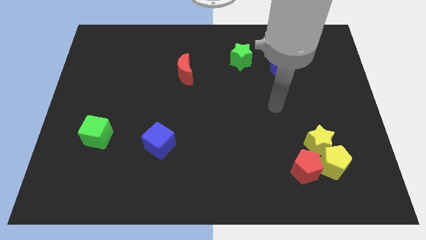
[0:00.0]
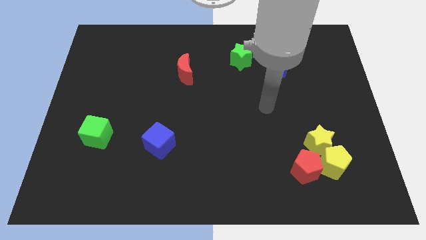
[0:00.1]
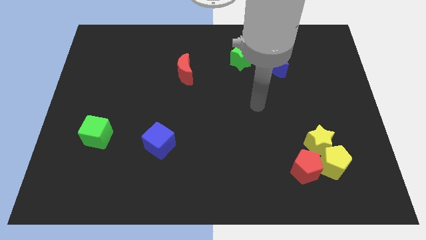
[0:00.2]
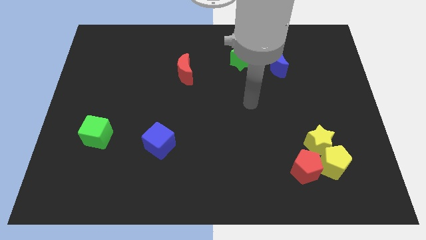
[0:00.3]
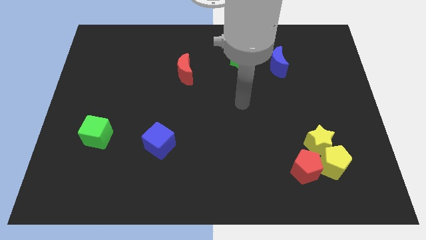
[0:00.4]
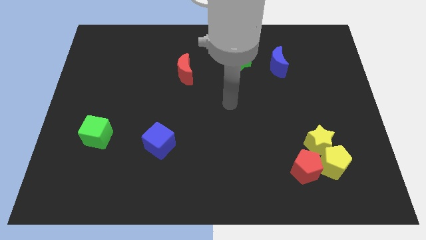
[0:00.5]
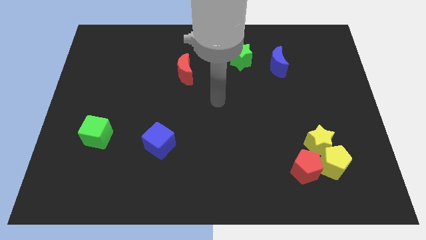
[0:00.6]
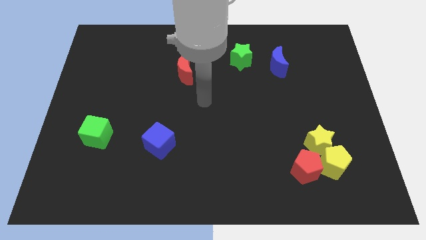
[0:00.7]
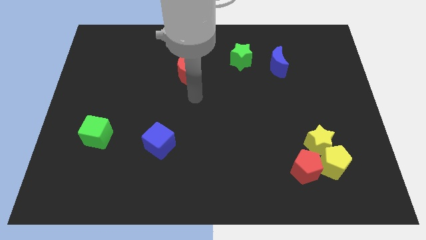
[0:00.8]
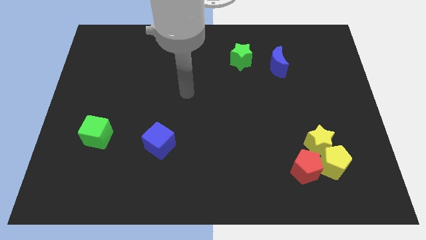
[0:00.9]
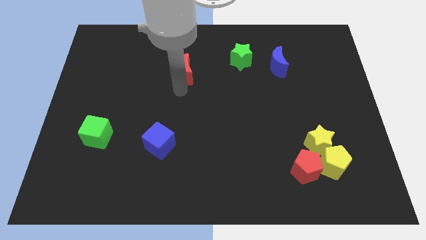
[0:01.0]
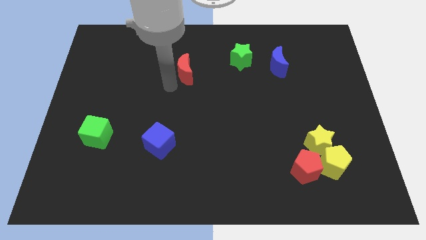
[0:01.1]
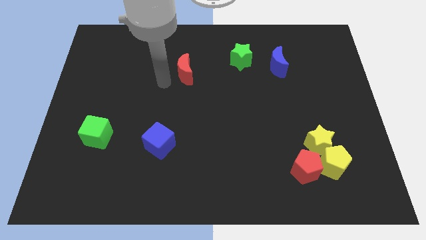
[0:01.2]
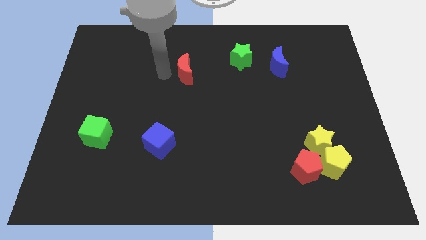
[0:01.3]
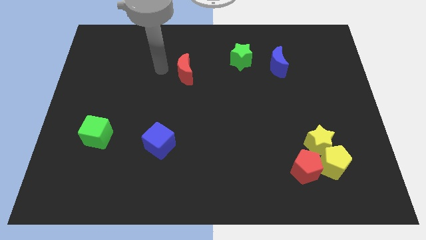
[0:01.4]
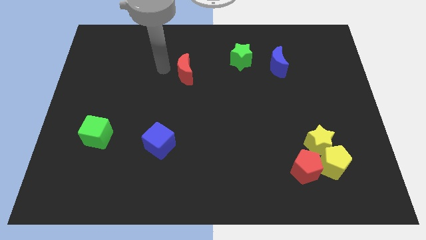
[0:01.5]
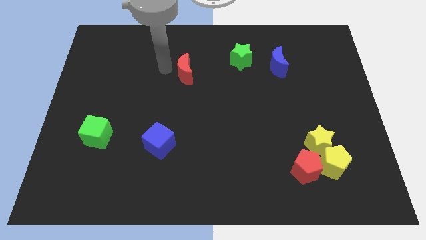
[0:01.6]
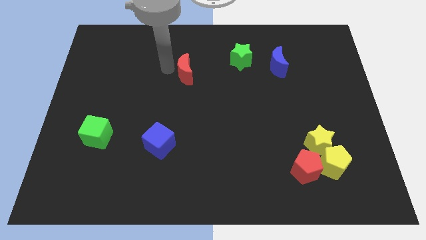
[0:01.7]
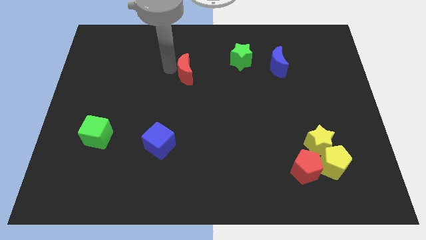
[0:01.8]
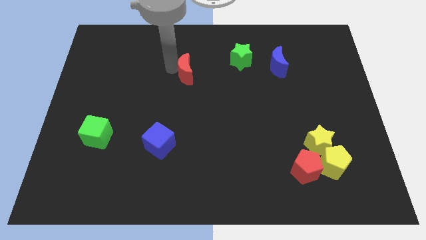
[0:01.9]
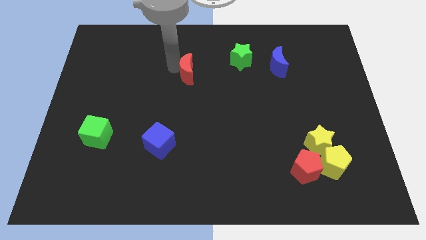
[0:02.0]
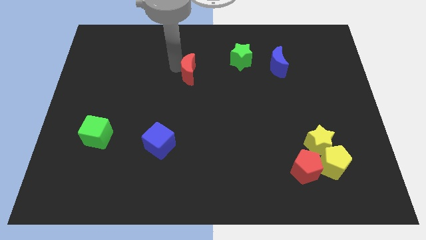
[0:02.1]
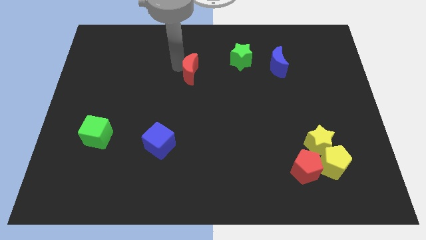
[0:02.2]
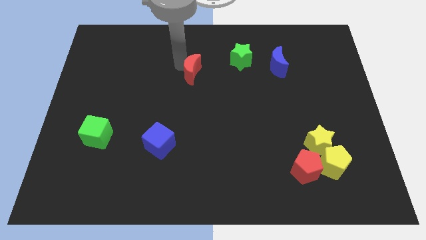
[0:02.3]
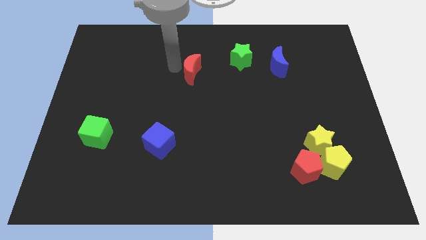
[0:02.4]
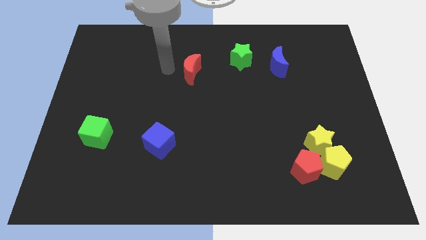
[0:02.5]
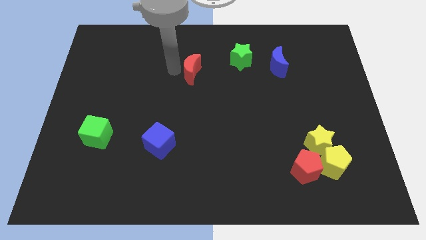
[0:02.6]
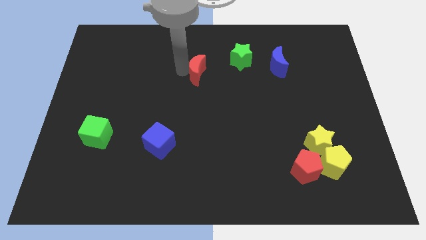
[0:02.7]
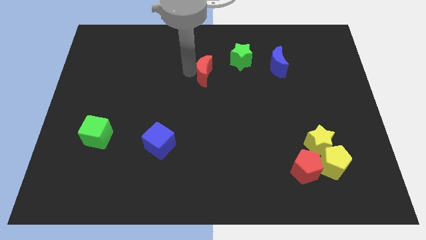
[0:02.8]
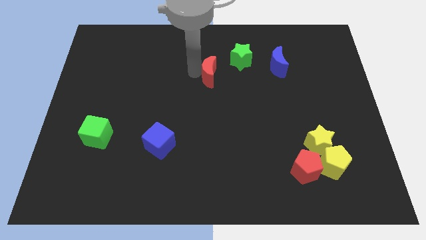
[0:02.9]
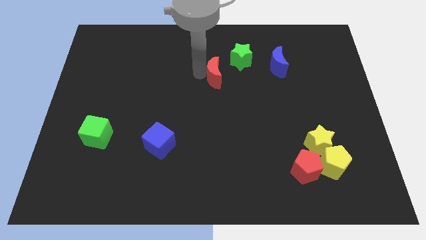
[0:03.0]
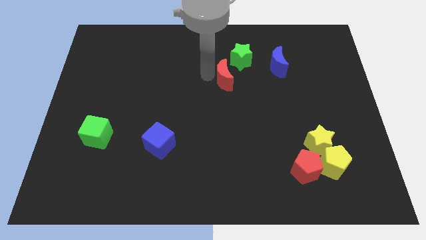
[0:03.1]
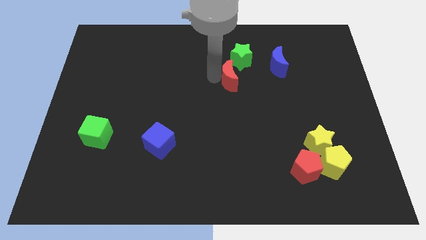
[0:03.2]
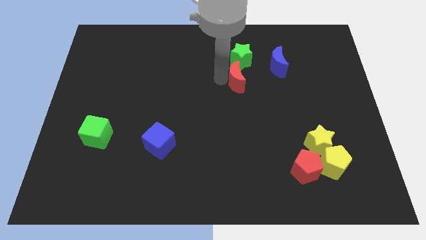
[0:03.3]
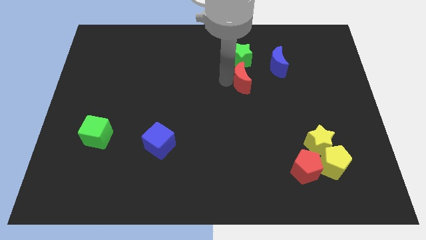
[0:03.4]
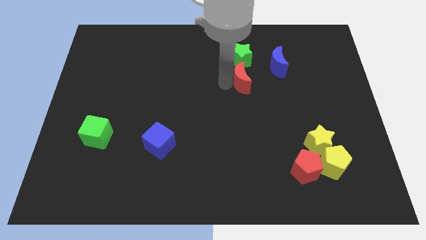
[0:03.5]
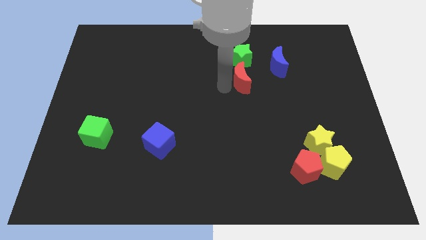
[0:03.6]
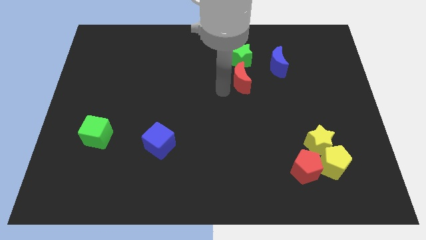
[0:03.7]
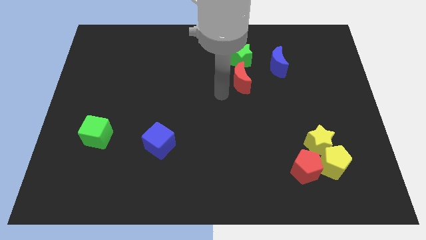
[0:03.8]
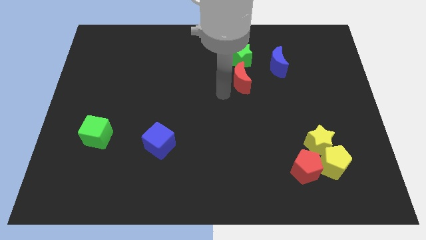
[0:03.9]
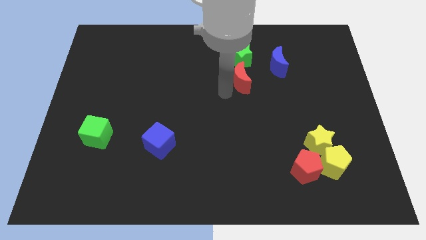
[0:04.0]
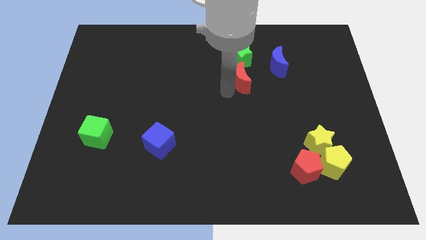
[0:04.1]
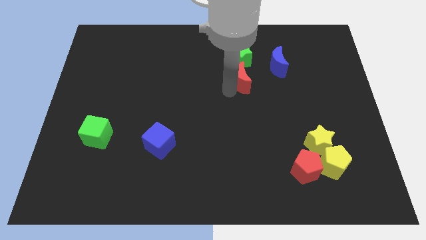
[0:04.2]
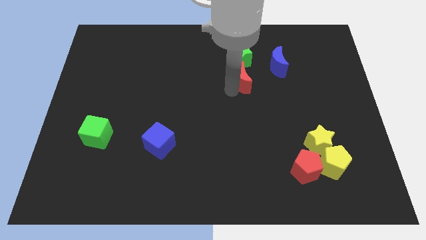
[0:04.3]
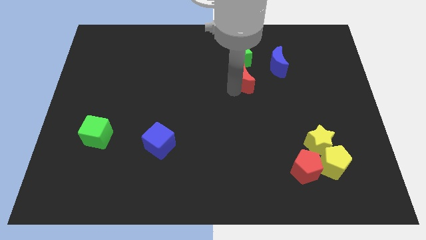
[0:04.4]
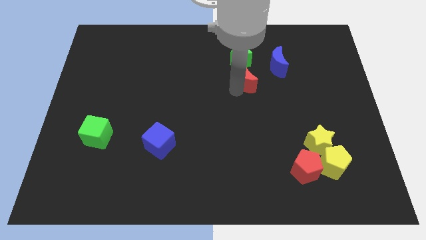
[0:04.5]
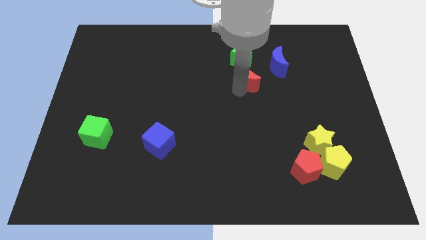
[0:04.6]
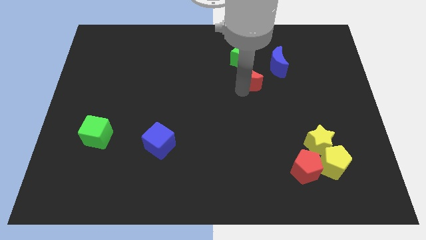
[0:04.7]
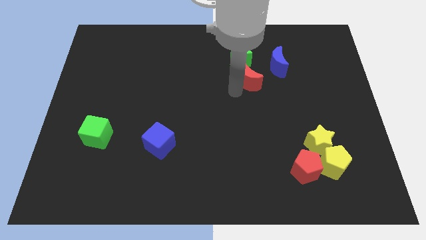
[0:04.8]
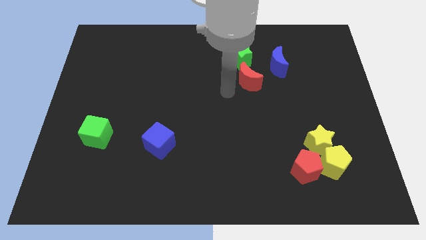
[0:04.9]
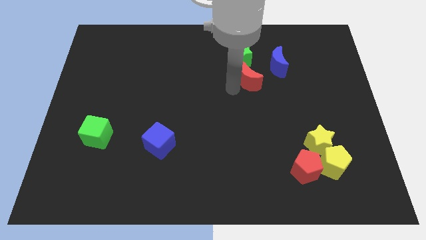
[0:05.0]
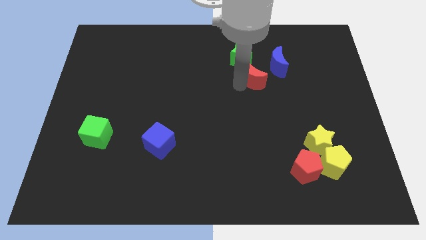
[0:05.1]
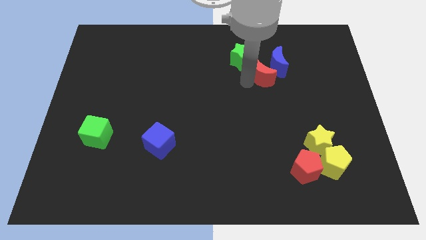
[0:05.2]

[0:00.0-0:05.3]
move the red moon to the blue moon

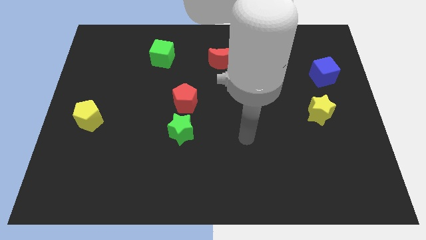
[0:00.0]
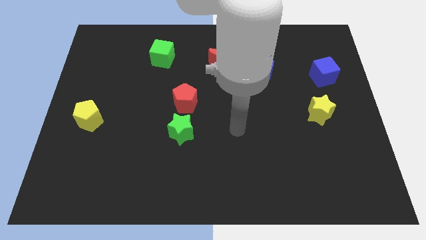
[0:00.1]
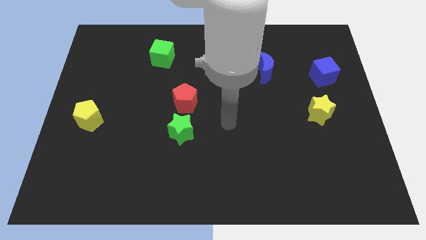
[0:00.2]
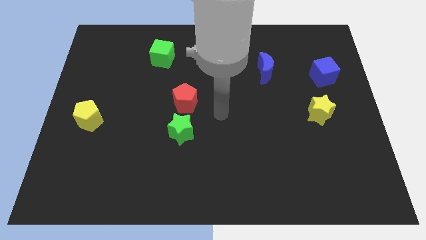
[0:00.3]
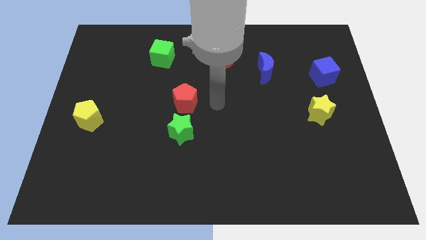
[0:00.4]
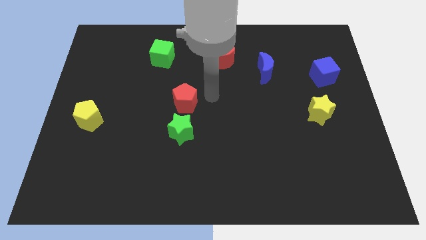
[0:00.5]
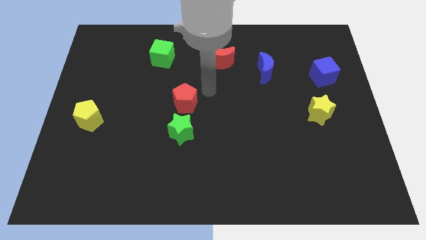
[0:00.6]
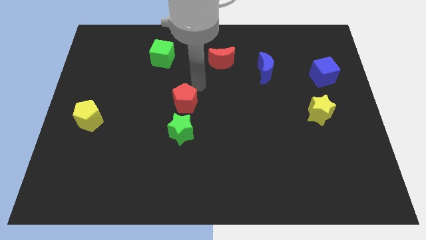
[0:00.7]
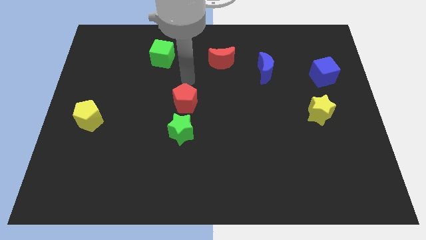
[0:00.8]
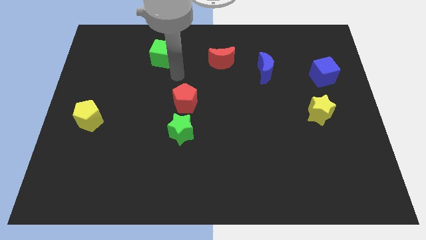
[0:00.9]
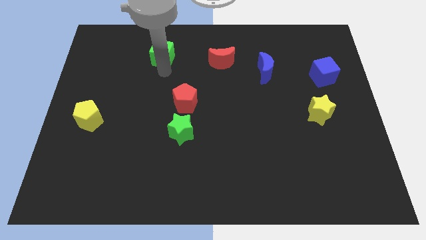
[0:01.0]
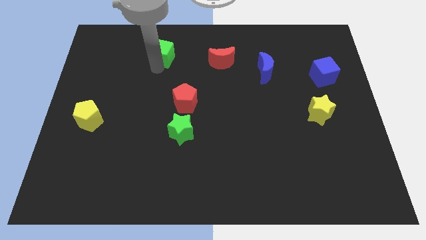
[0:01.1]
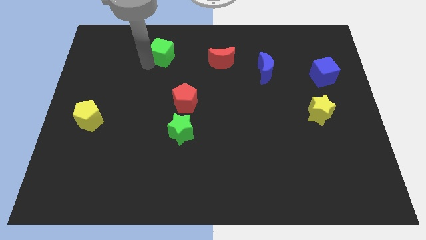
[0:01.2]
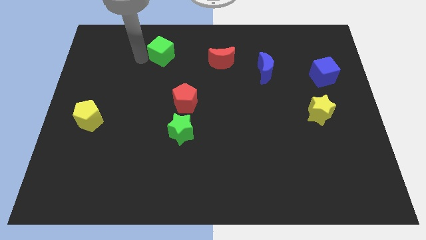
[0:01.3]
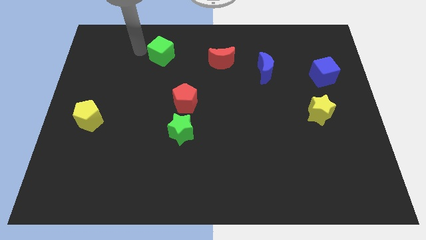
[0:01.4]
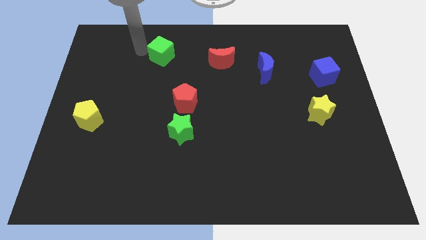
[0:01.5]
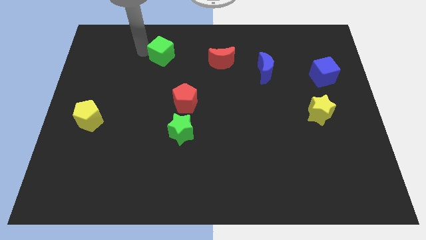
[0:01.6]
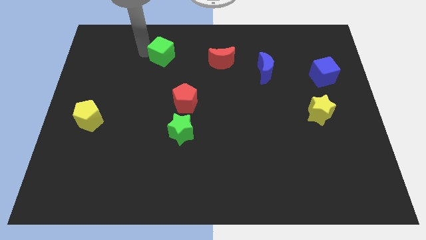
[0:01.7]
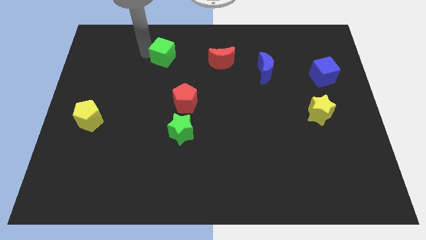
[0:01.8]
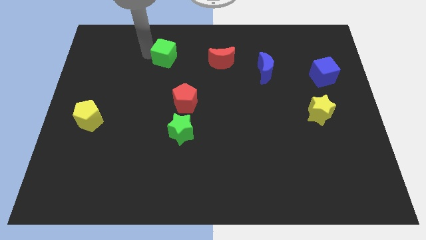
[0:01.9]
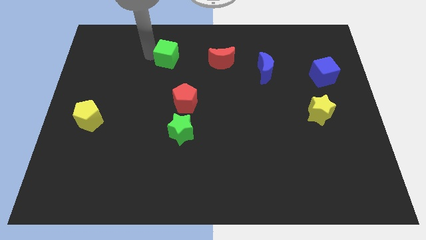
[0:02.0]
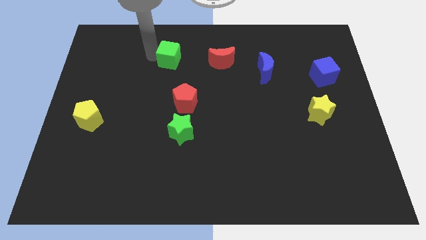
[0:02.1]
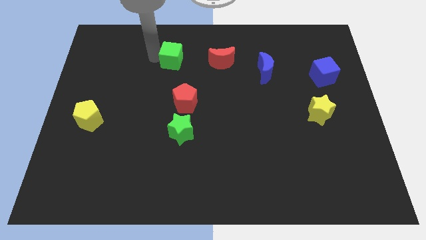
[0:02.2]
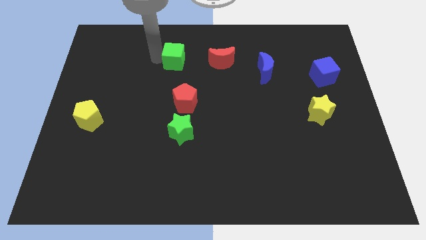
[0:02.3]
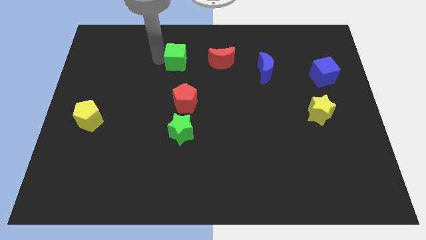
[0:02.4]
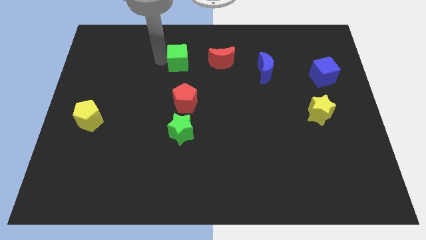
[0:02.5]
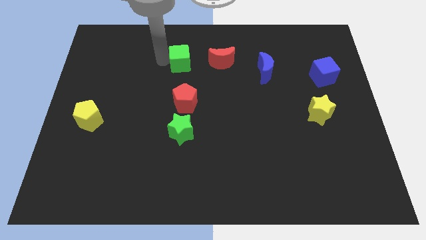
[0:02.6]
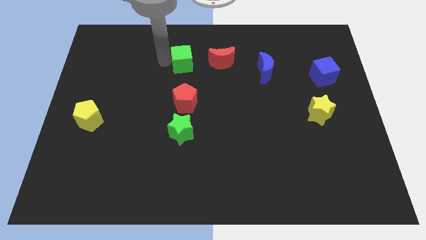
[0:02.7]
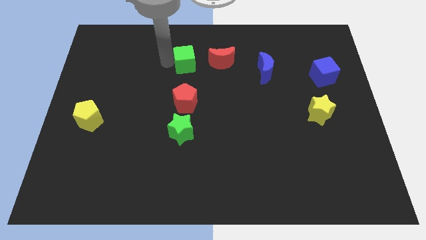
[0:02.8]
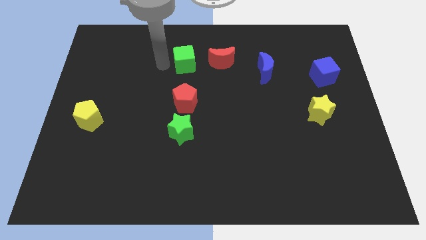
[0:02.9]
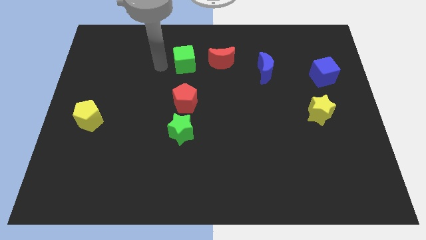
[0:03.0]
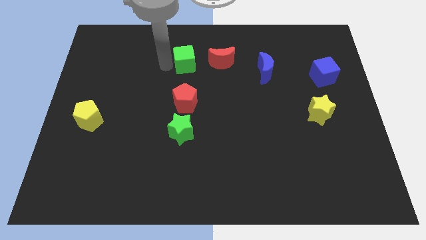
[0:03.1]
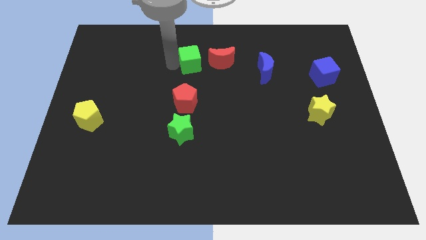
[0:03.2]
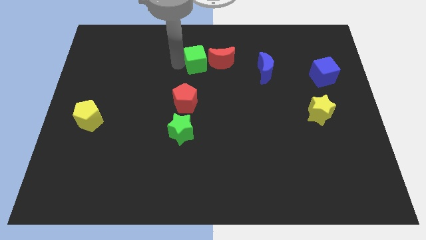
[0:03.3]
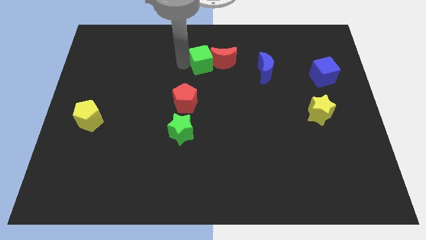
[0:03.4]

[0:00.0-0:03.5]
slide the green cube towards the red moon
